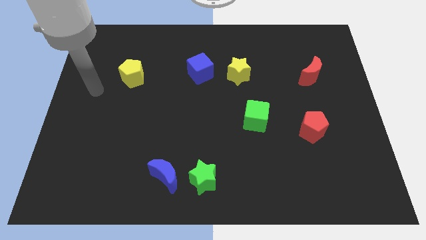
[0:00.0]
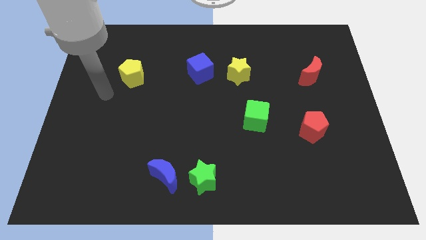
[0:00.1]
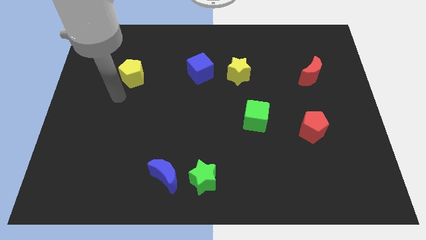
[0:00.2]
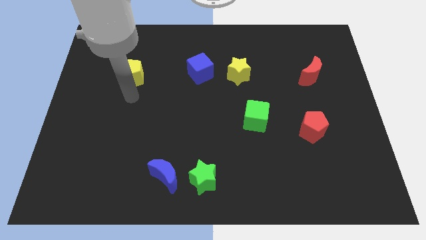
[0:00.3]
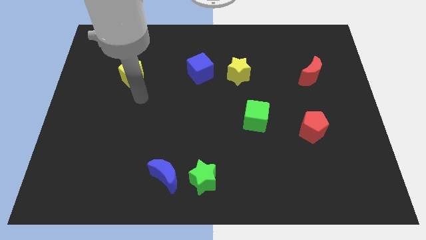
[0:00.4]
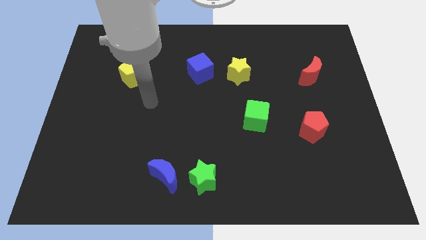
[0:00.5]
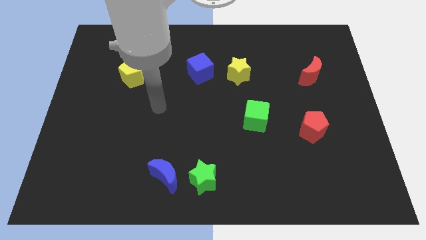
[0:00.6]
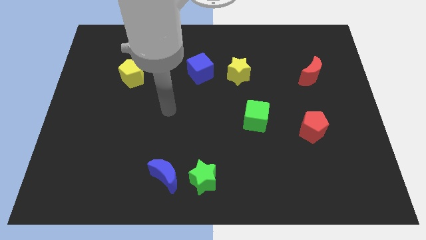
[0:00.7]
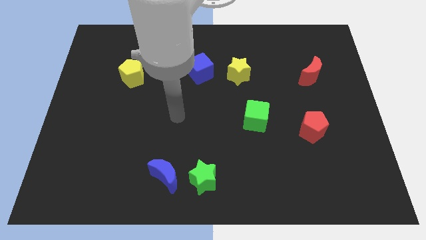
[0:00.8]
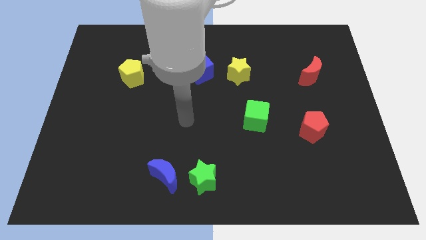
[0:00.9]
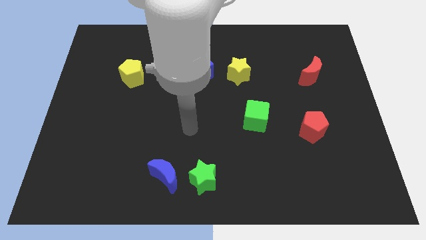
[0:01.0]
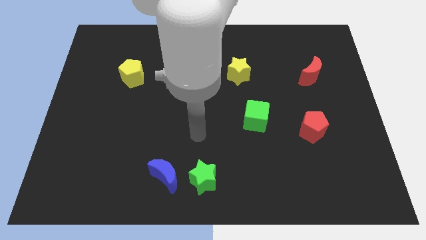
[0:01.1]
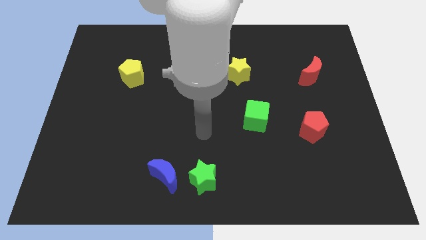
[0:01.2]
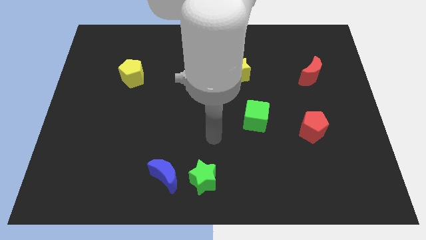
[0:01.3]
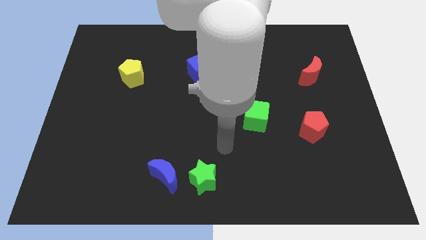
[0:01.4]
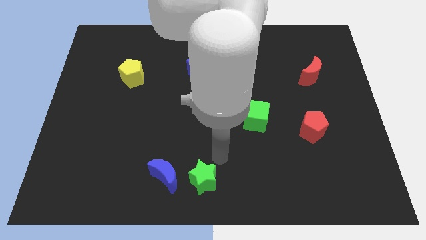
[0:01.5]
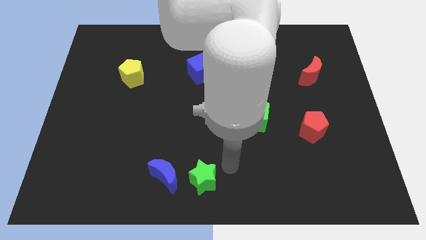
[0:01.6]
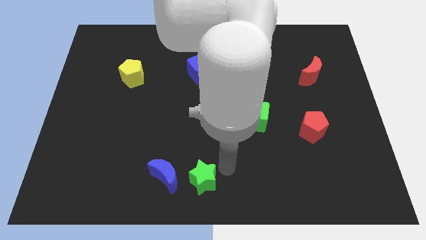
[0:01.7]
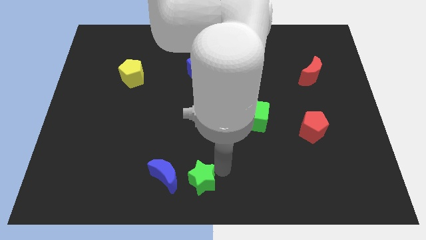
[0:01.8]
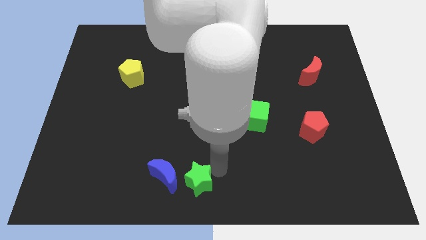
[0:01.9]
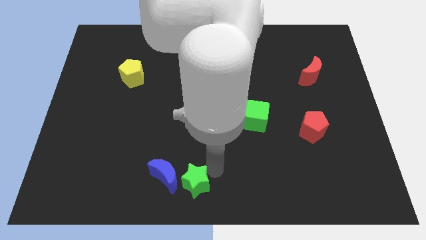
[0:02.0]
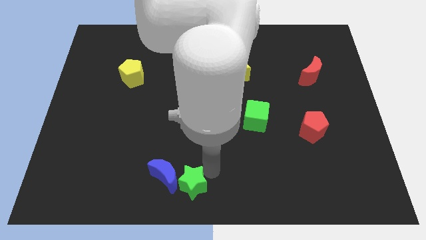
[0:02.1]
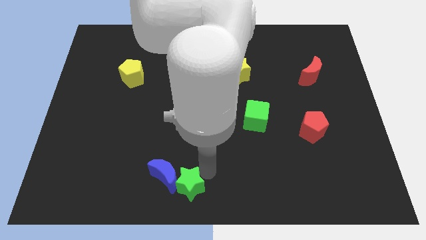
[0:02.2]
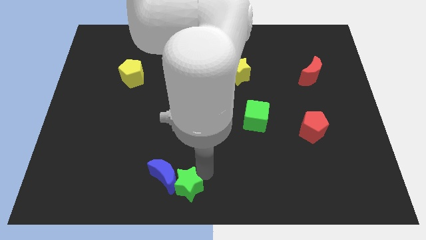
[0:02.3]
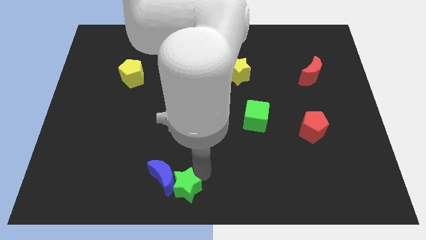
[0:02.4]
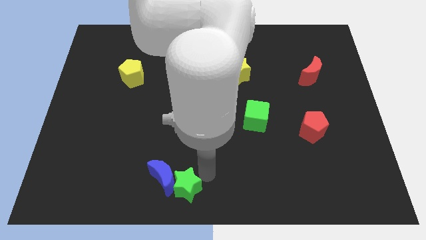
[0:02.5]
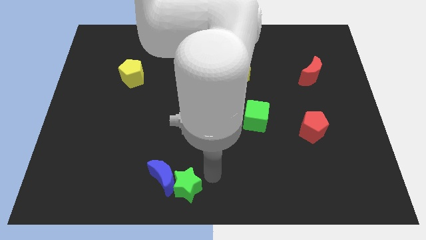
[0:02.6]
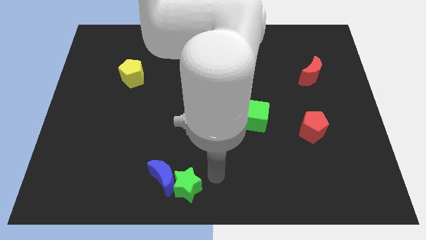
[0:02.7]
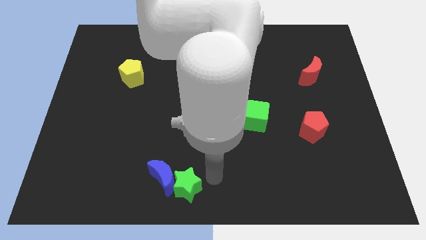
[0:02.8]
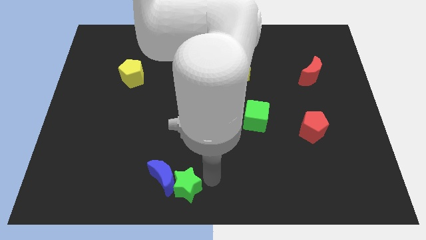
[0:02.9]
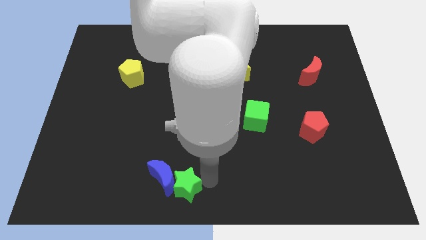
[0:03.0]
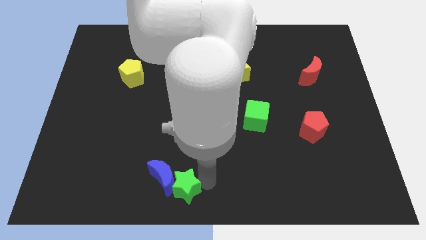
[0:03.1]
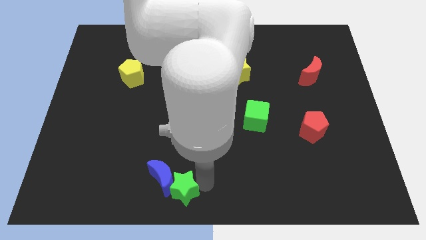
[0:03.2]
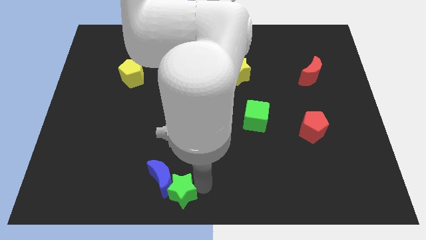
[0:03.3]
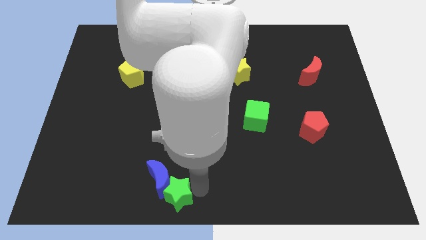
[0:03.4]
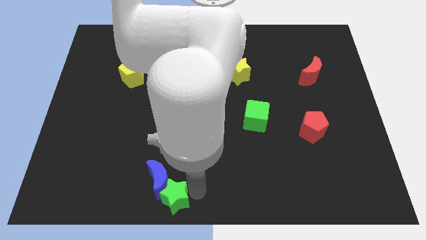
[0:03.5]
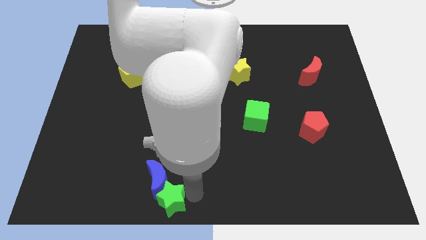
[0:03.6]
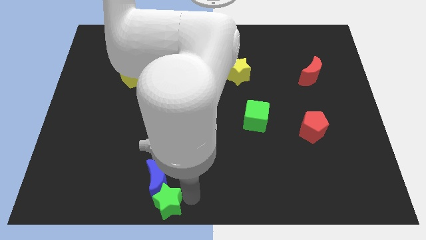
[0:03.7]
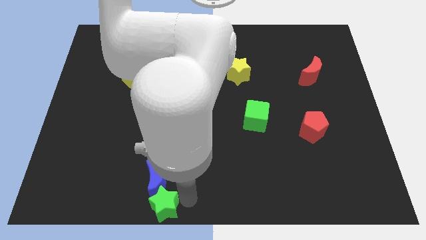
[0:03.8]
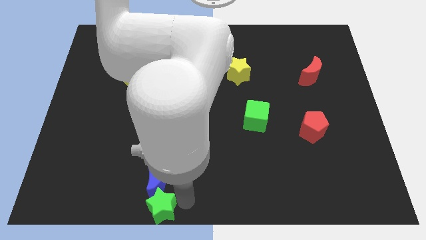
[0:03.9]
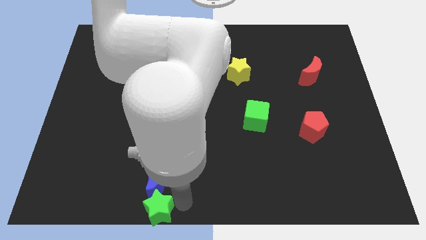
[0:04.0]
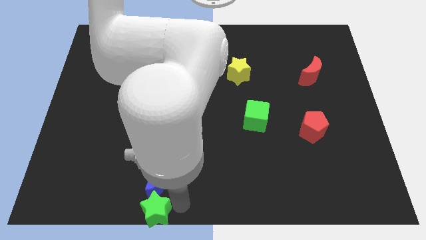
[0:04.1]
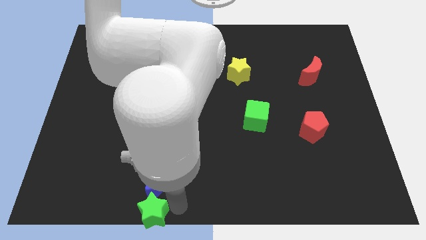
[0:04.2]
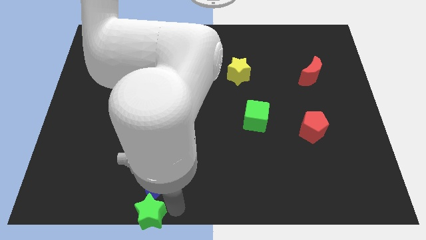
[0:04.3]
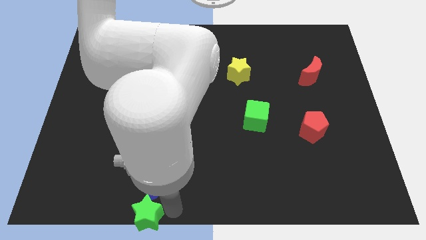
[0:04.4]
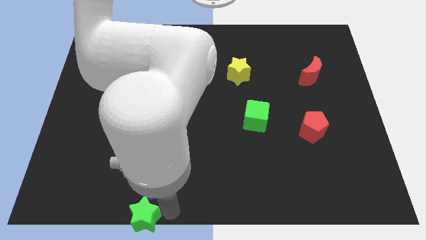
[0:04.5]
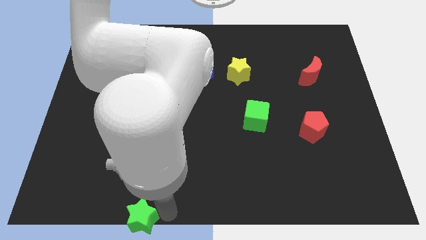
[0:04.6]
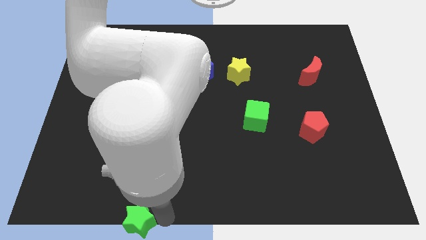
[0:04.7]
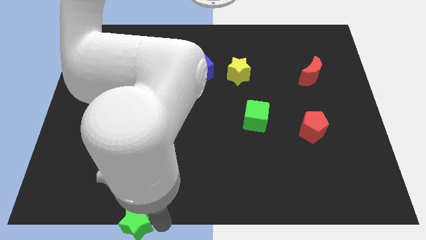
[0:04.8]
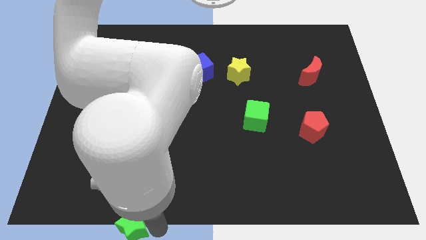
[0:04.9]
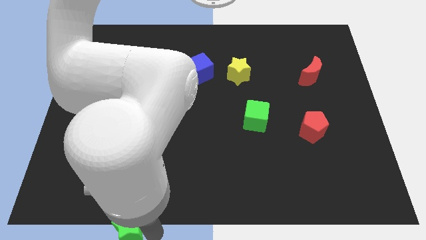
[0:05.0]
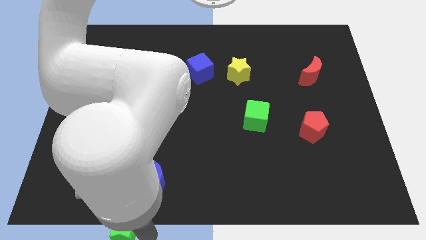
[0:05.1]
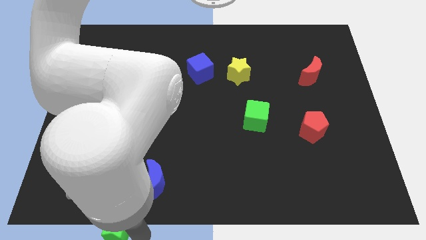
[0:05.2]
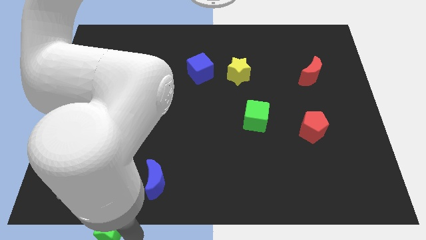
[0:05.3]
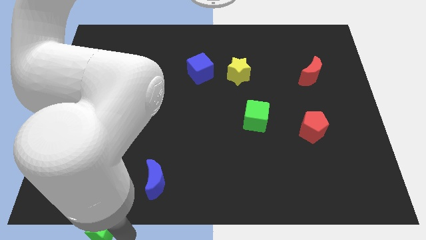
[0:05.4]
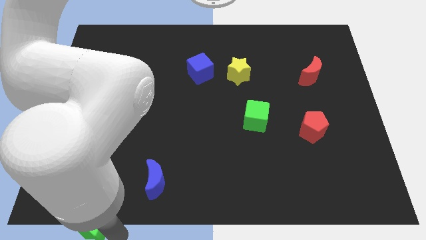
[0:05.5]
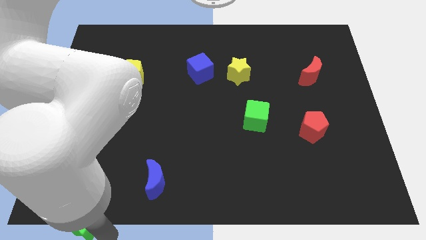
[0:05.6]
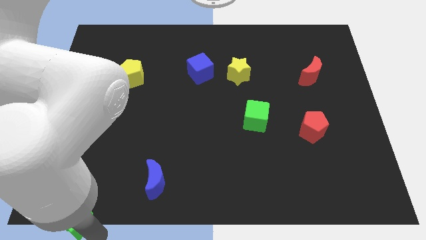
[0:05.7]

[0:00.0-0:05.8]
put the green star to the bottom left of the board

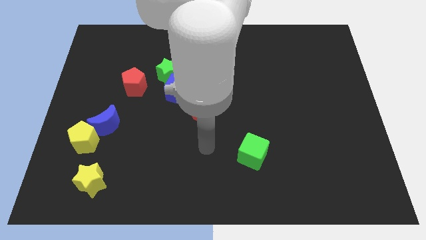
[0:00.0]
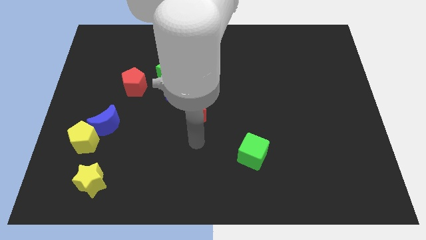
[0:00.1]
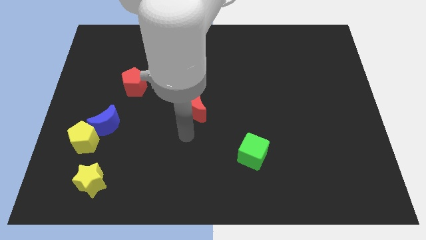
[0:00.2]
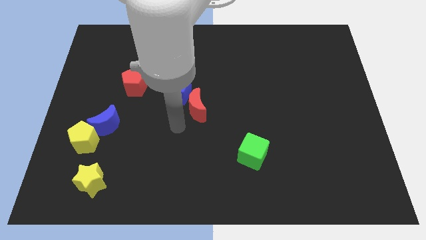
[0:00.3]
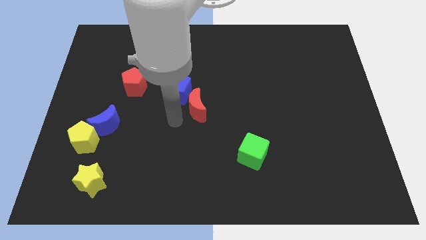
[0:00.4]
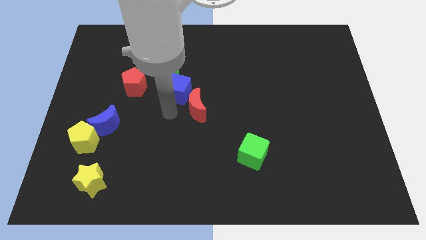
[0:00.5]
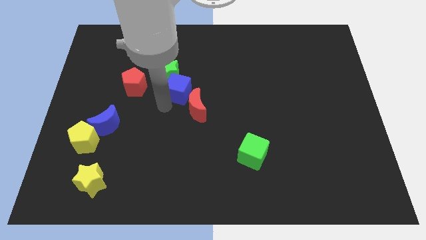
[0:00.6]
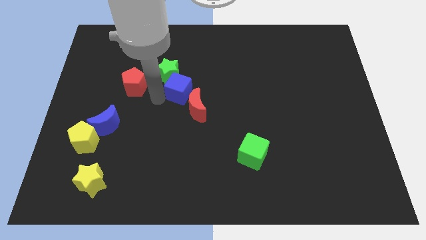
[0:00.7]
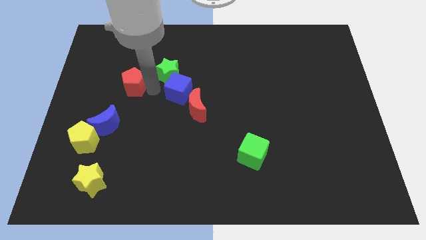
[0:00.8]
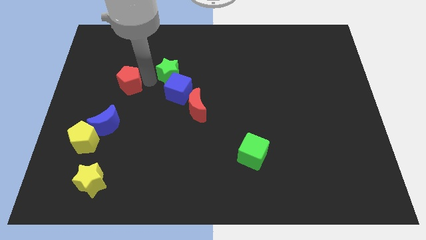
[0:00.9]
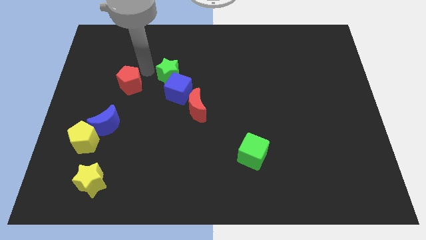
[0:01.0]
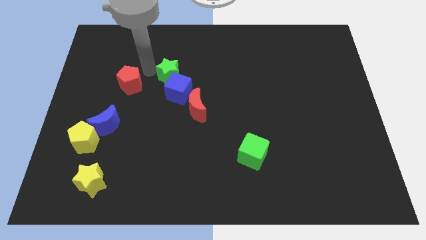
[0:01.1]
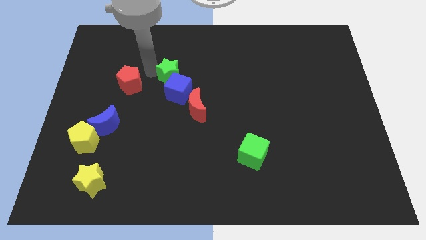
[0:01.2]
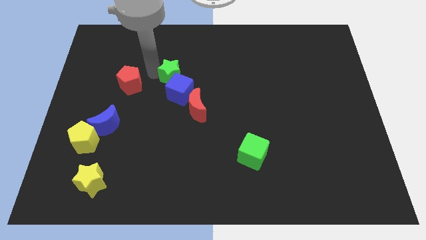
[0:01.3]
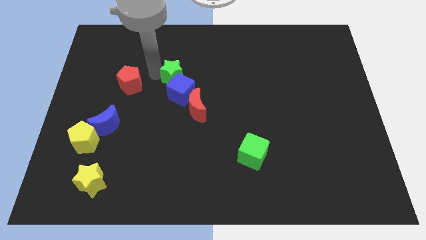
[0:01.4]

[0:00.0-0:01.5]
move the green star to the center

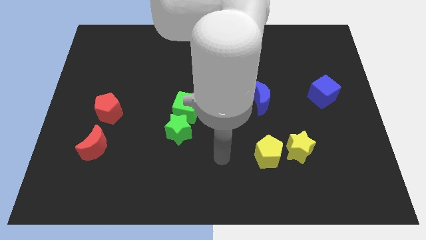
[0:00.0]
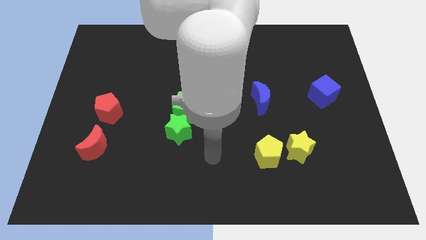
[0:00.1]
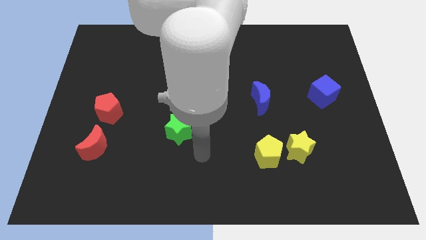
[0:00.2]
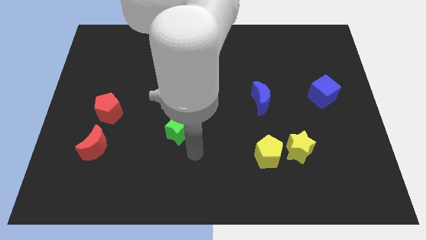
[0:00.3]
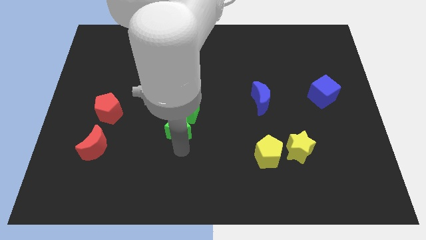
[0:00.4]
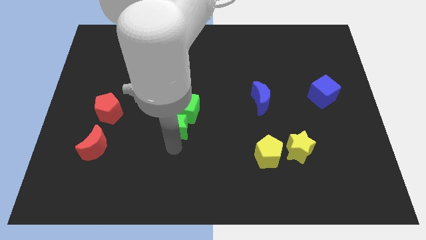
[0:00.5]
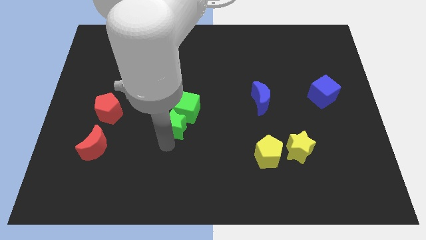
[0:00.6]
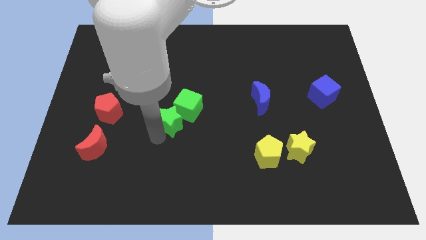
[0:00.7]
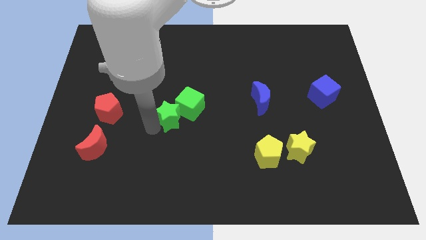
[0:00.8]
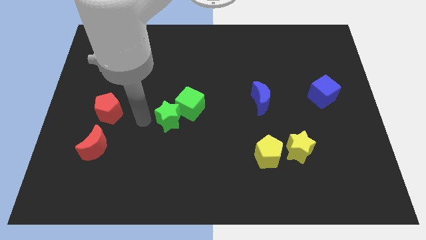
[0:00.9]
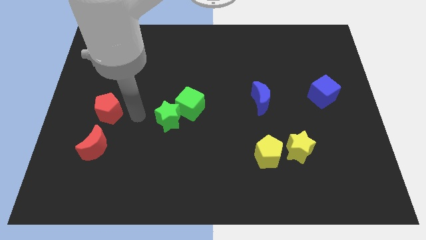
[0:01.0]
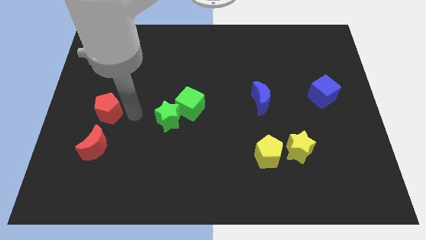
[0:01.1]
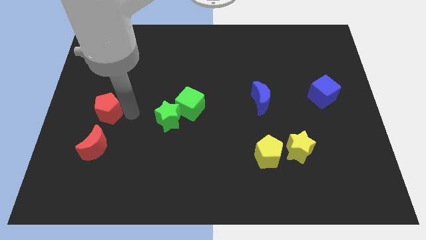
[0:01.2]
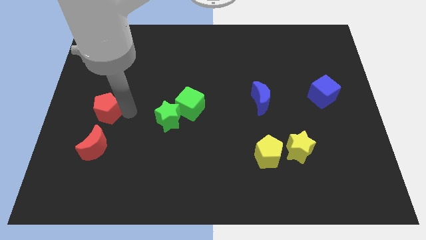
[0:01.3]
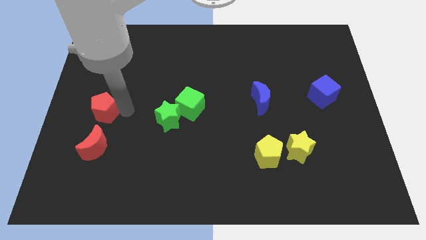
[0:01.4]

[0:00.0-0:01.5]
slide the red pentagon to the left side
